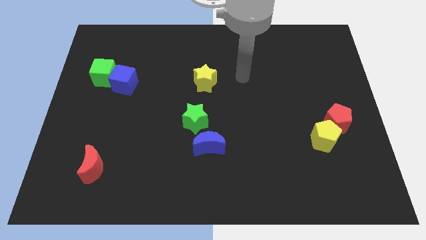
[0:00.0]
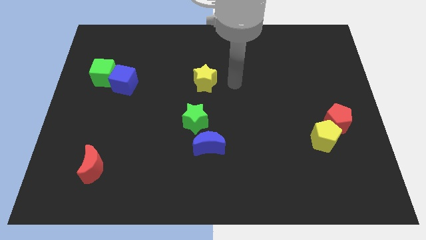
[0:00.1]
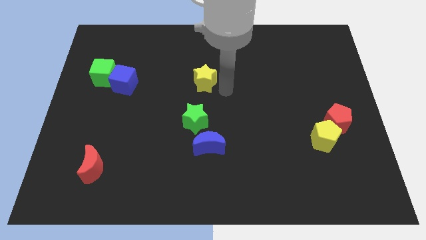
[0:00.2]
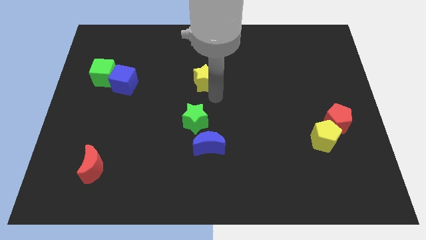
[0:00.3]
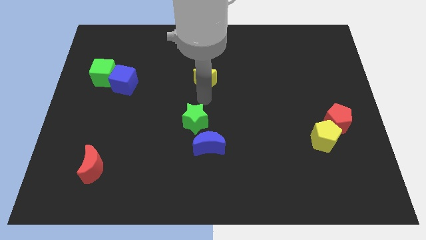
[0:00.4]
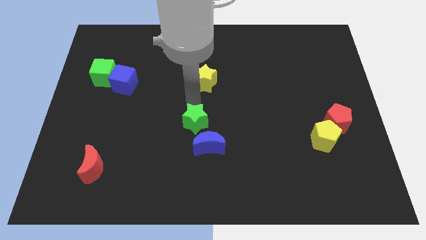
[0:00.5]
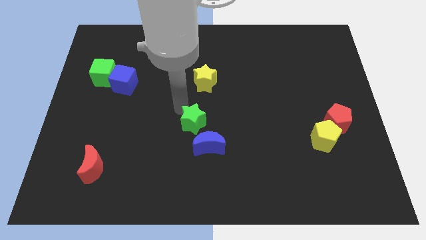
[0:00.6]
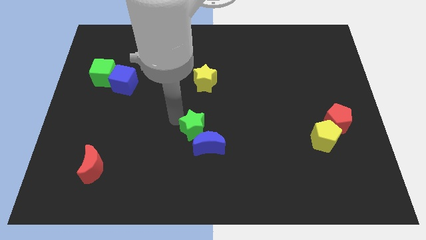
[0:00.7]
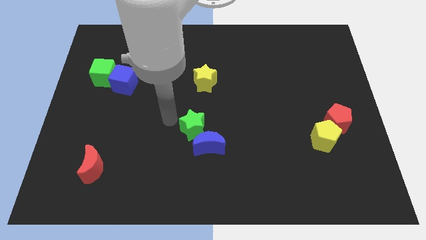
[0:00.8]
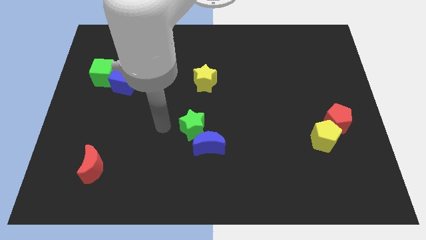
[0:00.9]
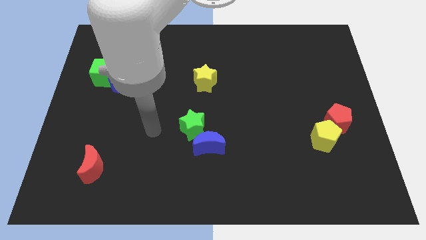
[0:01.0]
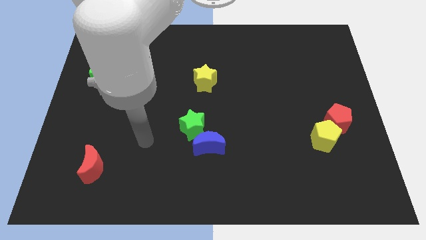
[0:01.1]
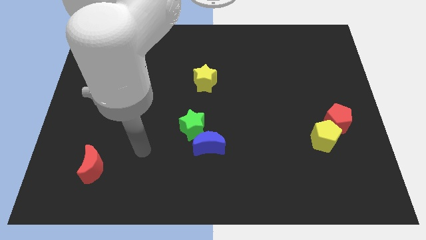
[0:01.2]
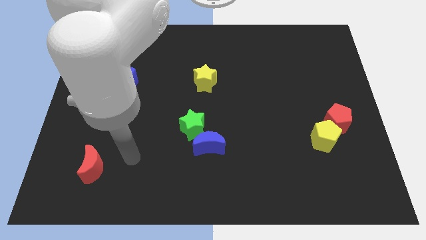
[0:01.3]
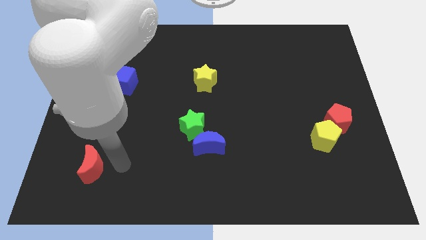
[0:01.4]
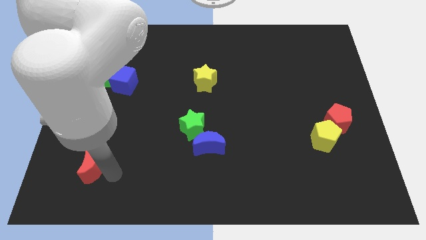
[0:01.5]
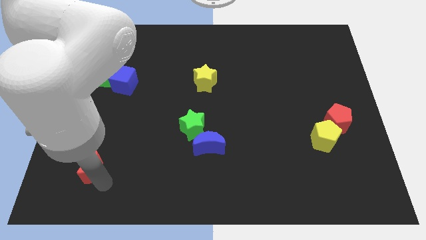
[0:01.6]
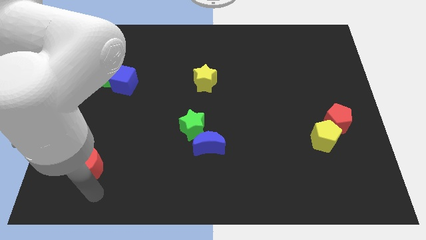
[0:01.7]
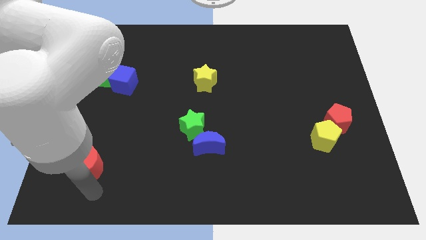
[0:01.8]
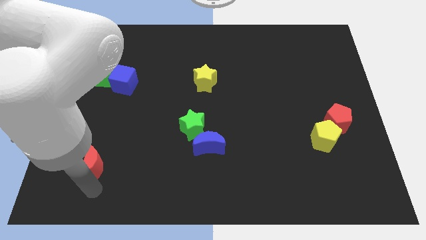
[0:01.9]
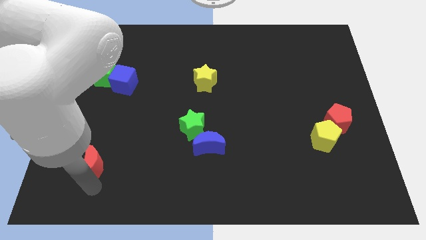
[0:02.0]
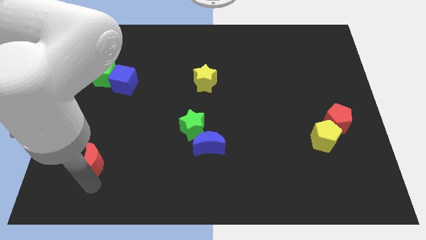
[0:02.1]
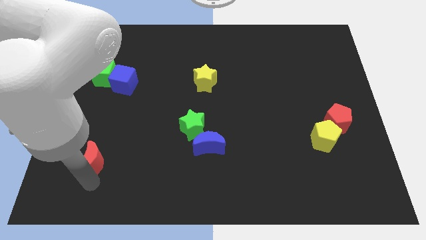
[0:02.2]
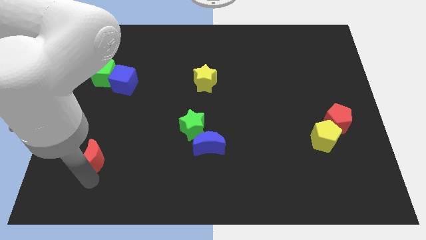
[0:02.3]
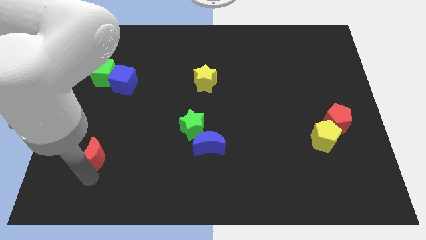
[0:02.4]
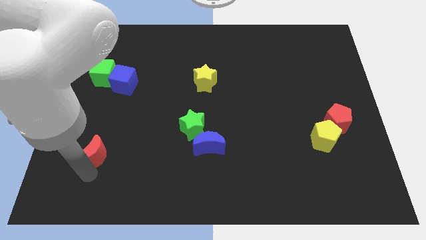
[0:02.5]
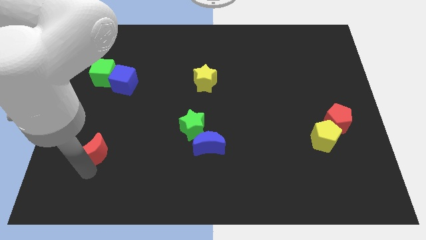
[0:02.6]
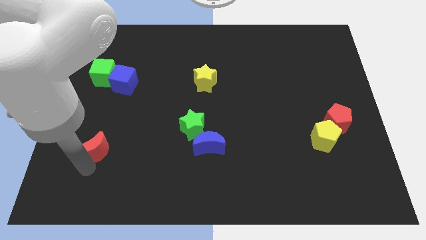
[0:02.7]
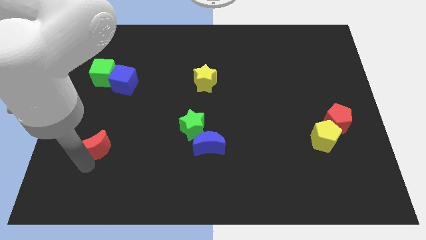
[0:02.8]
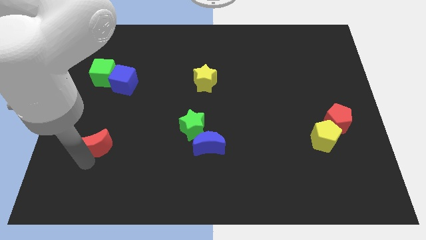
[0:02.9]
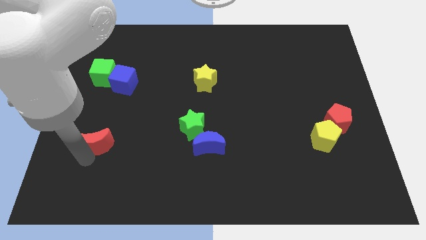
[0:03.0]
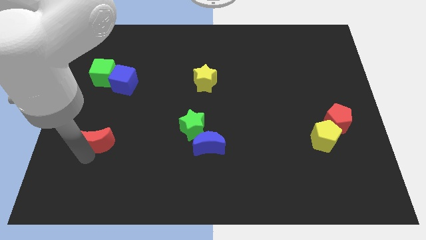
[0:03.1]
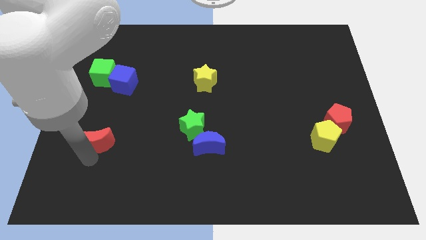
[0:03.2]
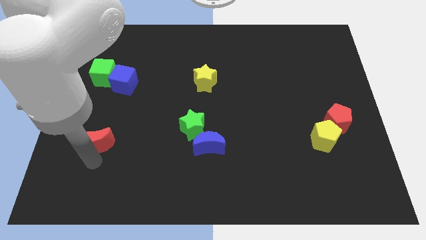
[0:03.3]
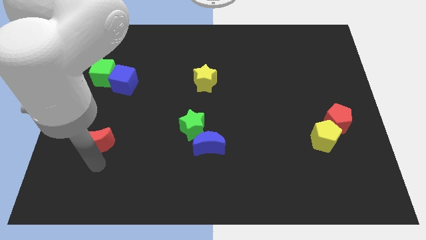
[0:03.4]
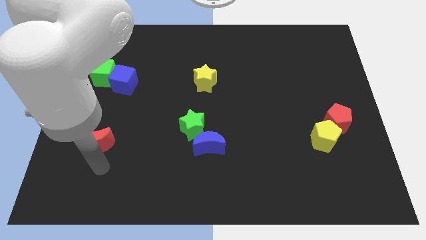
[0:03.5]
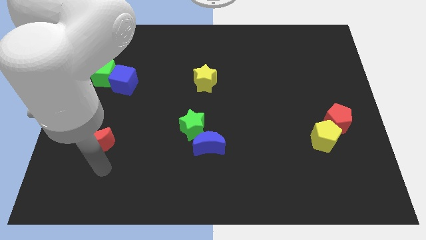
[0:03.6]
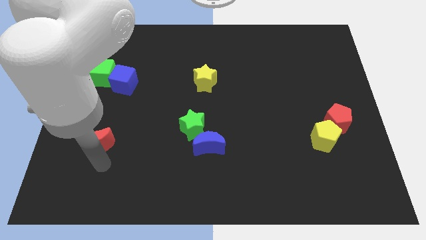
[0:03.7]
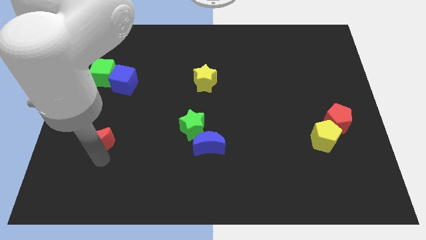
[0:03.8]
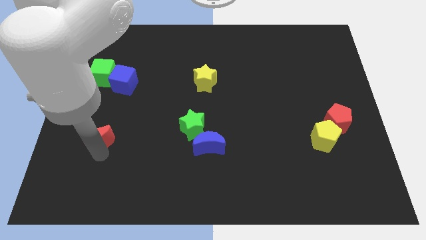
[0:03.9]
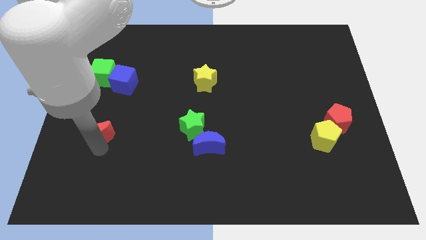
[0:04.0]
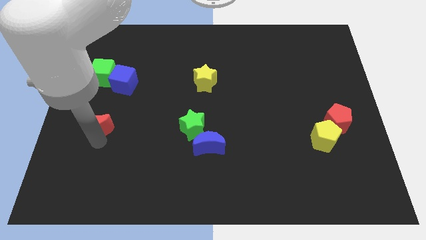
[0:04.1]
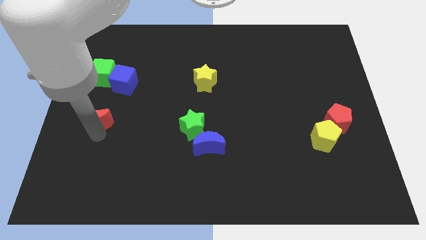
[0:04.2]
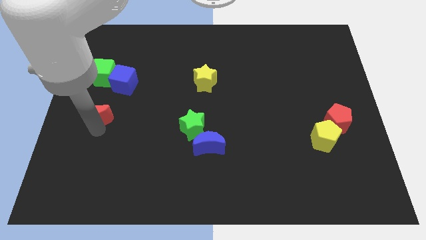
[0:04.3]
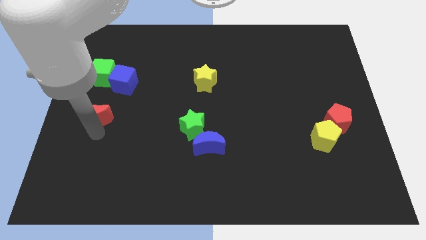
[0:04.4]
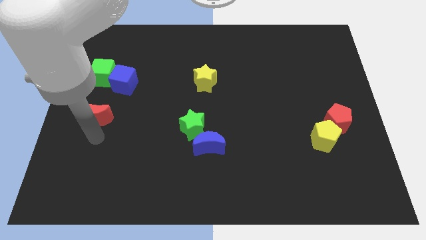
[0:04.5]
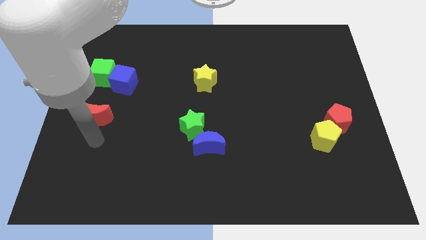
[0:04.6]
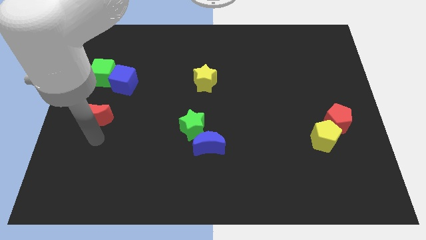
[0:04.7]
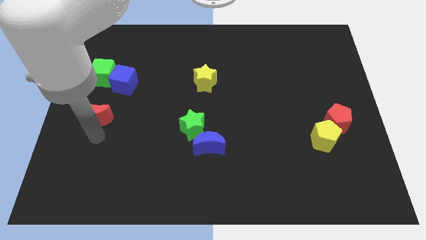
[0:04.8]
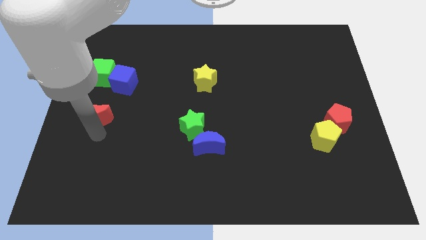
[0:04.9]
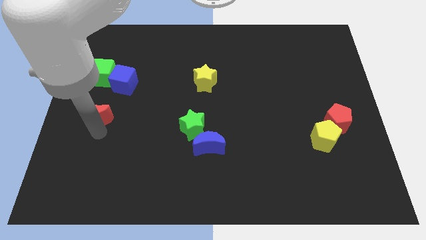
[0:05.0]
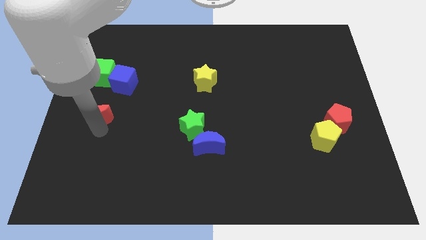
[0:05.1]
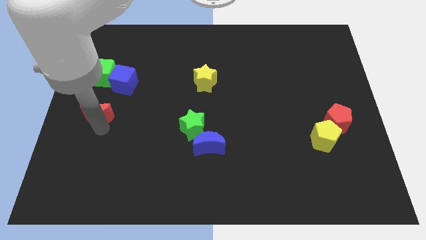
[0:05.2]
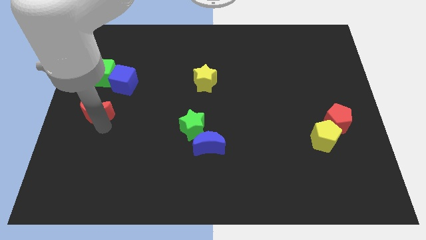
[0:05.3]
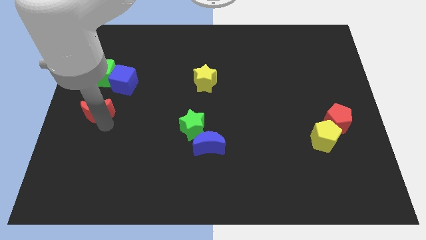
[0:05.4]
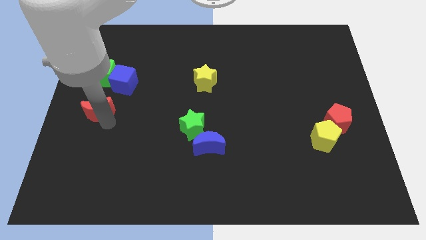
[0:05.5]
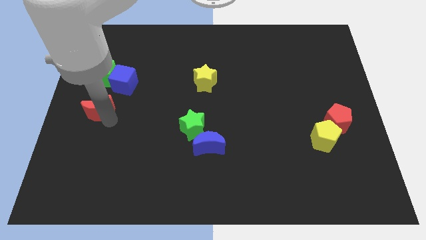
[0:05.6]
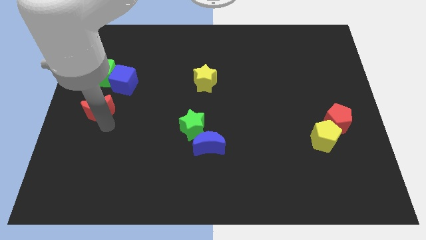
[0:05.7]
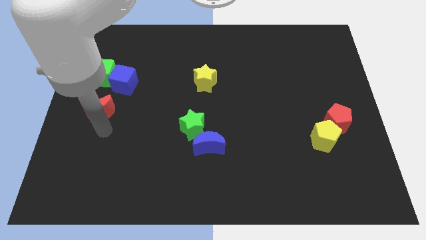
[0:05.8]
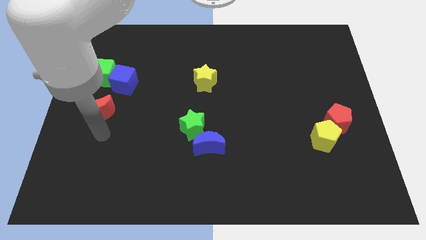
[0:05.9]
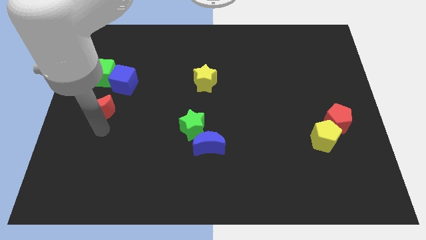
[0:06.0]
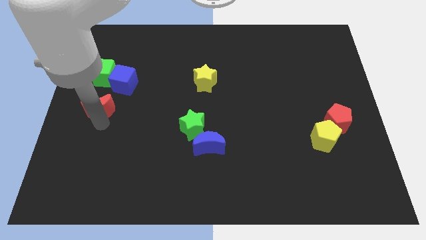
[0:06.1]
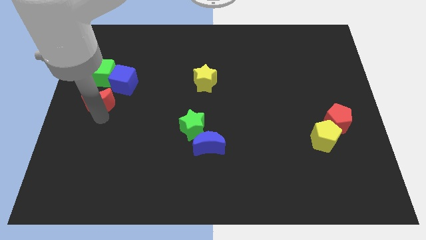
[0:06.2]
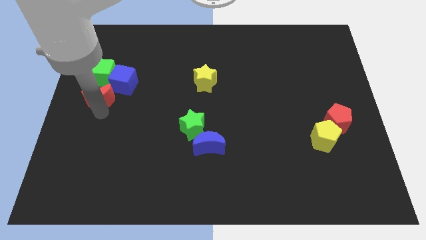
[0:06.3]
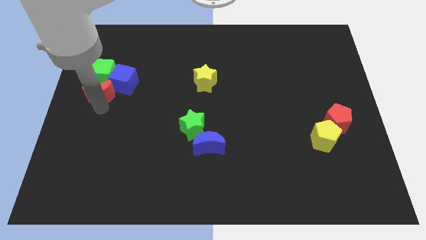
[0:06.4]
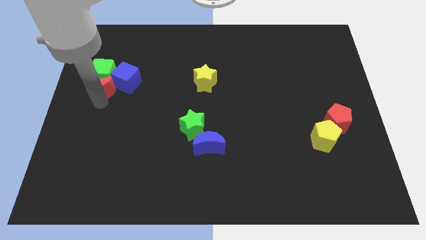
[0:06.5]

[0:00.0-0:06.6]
move the red moon towards the green cube

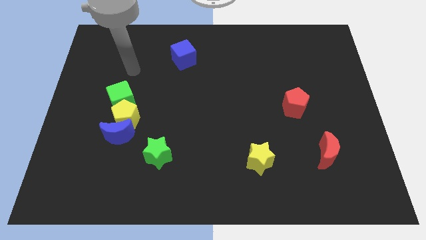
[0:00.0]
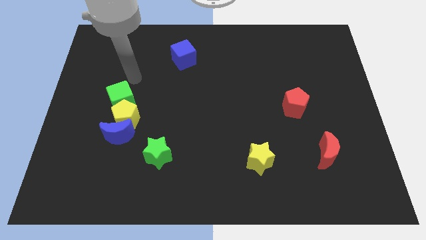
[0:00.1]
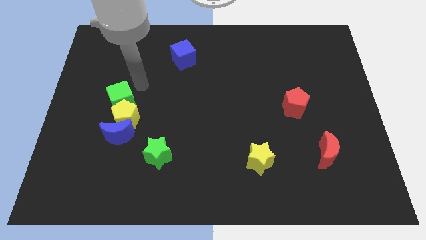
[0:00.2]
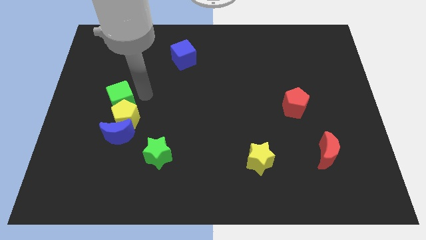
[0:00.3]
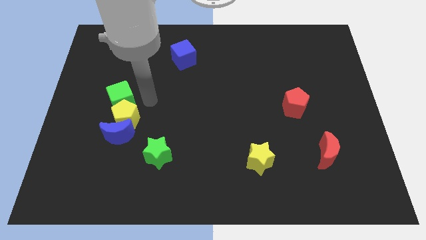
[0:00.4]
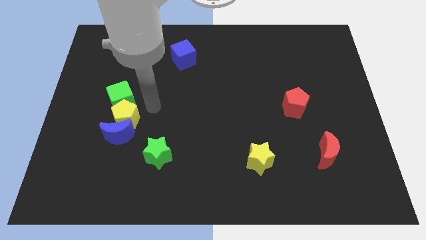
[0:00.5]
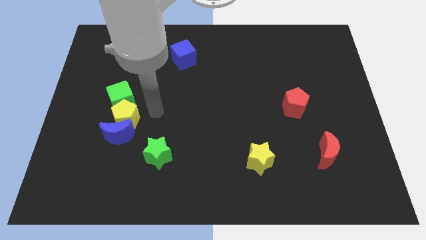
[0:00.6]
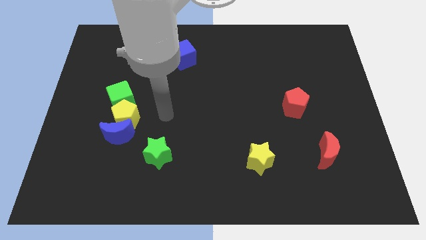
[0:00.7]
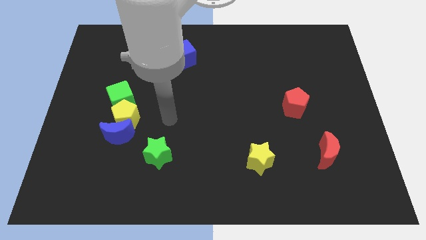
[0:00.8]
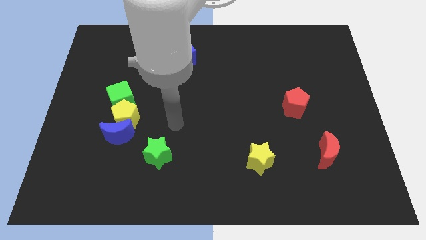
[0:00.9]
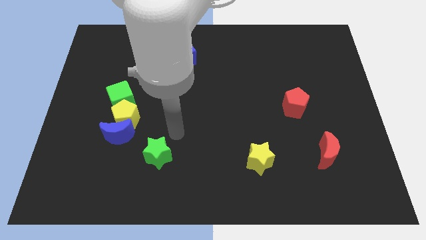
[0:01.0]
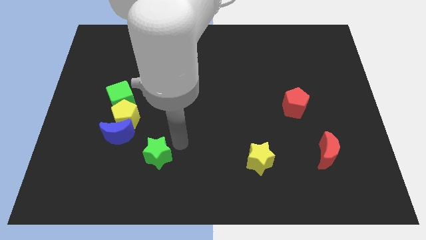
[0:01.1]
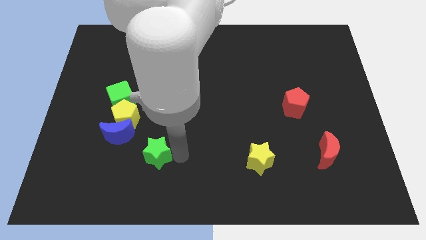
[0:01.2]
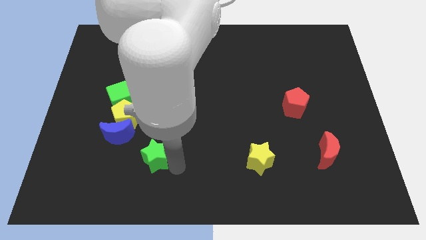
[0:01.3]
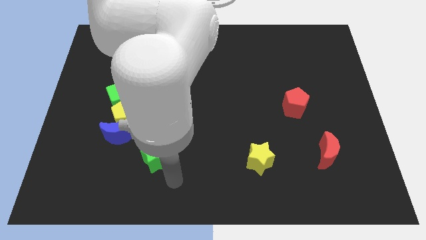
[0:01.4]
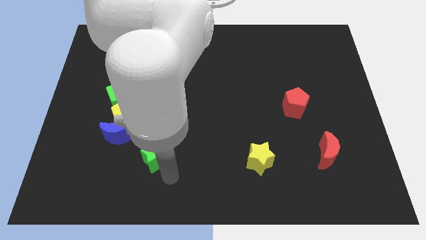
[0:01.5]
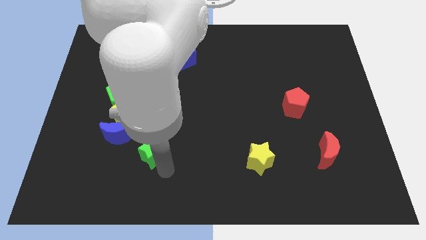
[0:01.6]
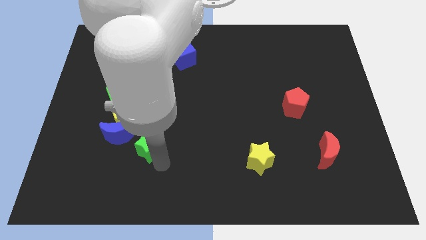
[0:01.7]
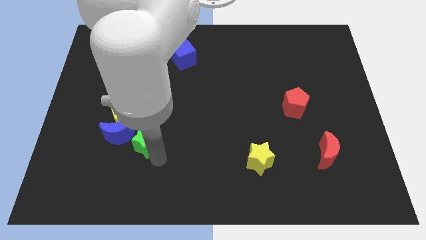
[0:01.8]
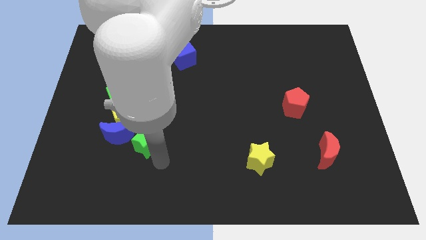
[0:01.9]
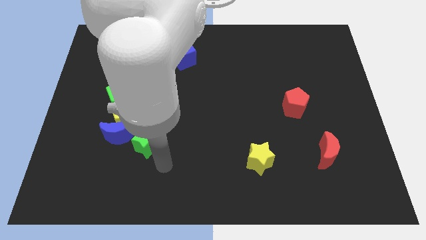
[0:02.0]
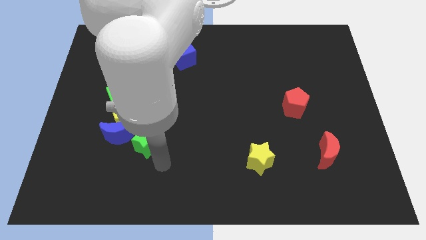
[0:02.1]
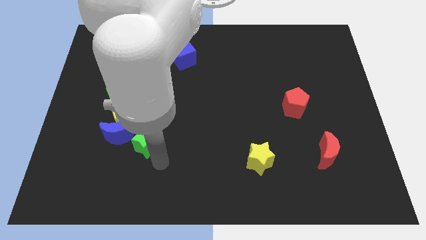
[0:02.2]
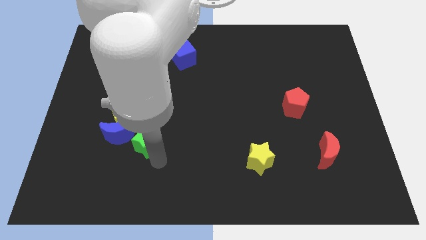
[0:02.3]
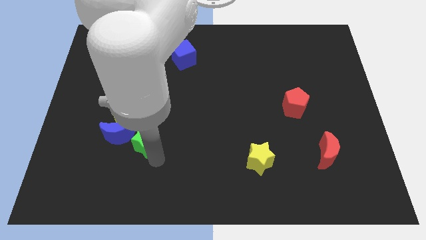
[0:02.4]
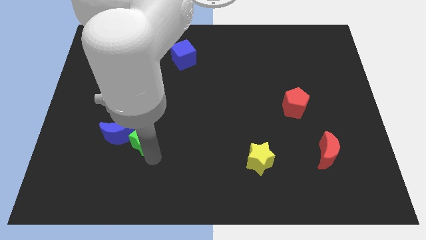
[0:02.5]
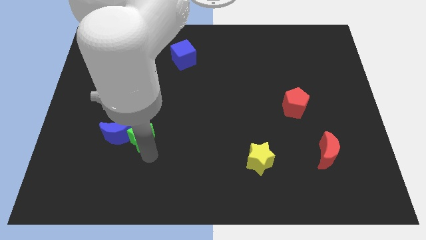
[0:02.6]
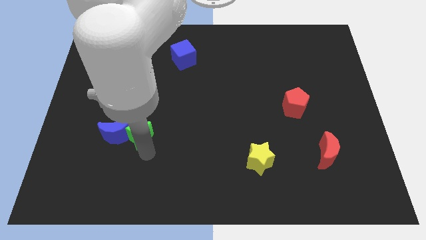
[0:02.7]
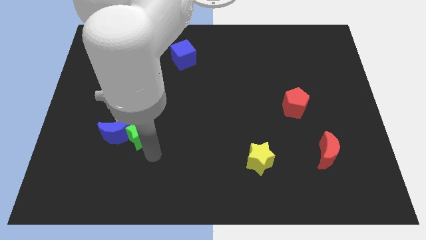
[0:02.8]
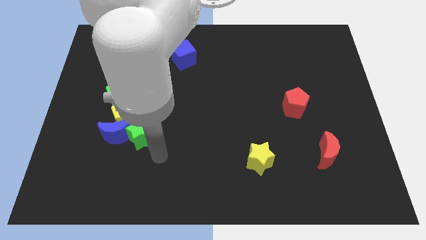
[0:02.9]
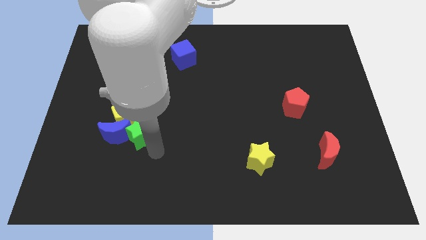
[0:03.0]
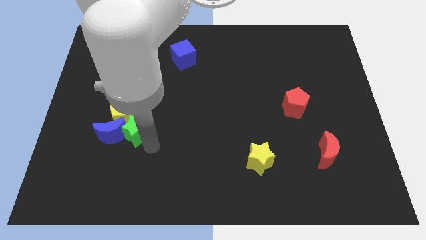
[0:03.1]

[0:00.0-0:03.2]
put the green star next to the yellow pentagon
